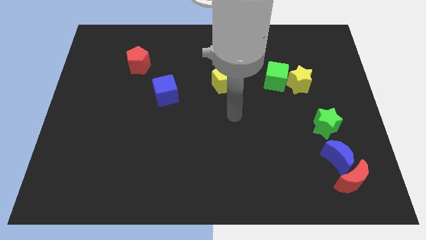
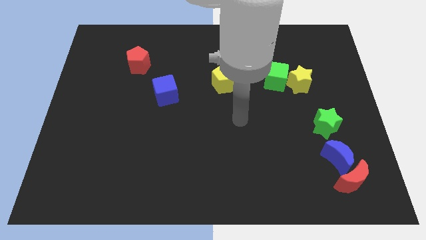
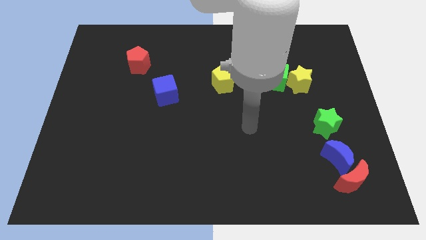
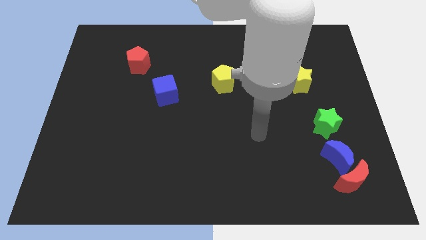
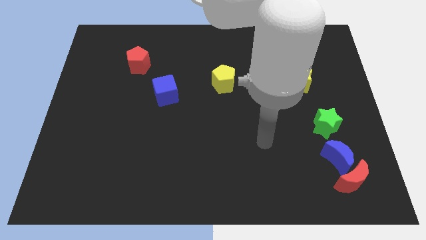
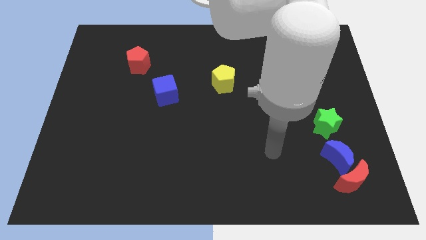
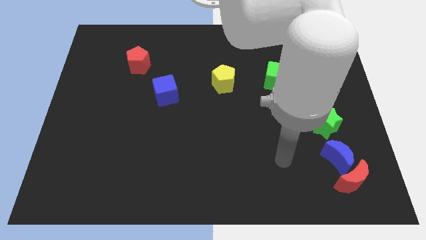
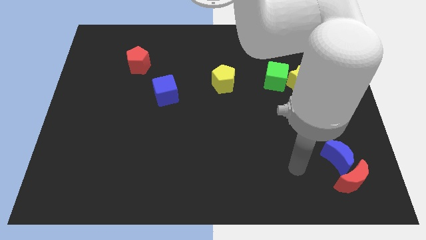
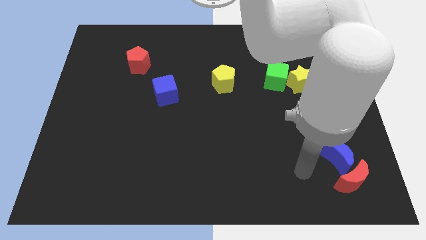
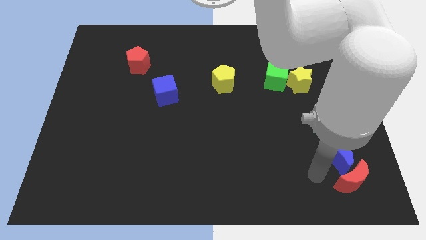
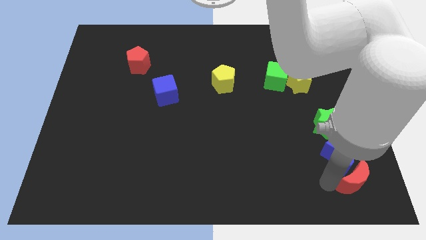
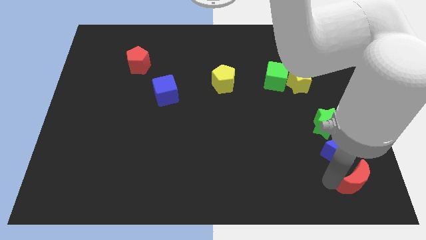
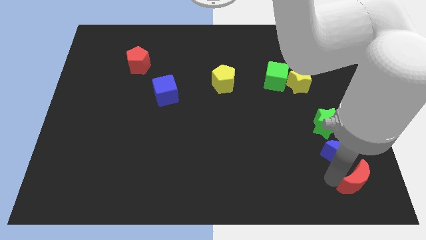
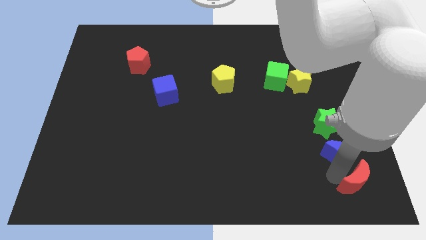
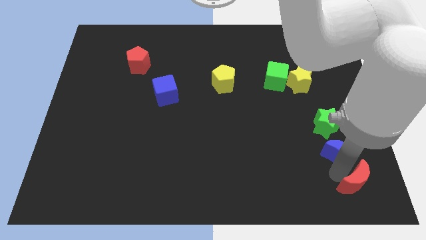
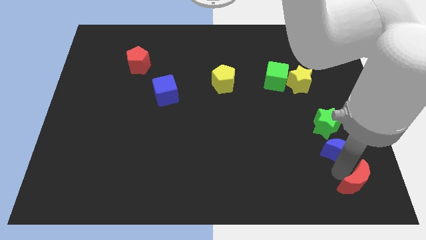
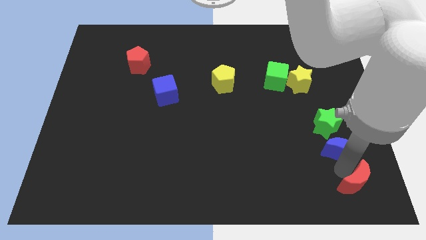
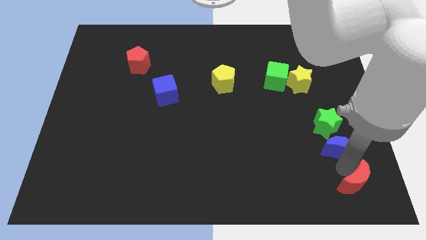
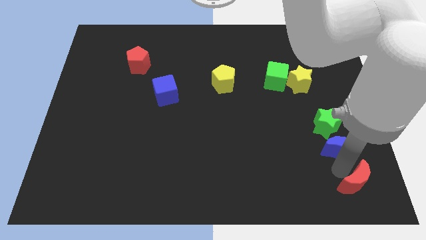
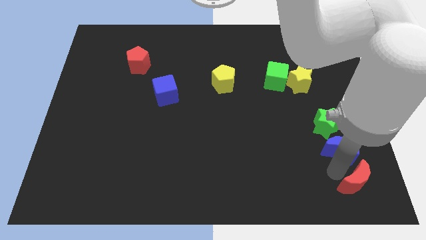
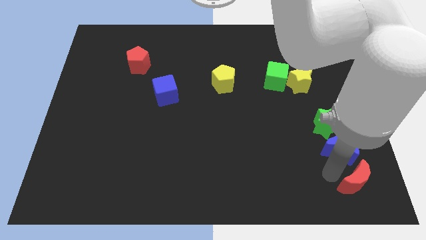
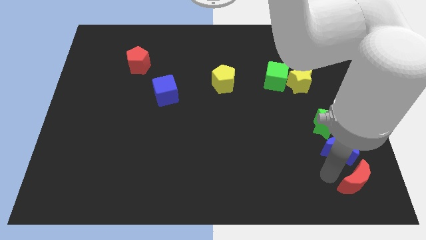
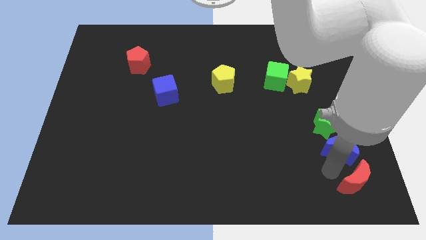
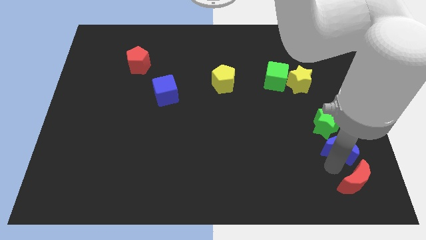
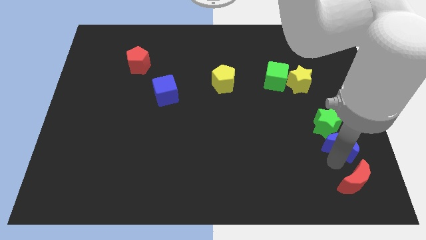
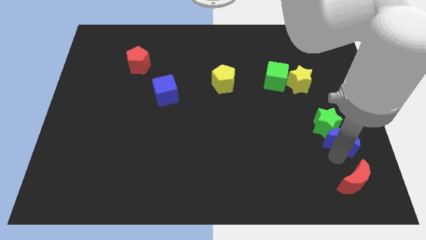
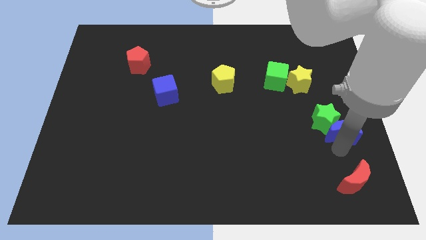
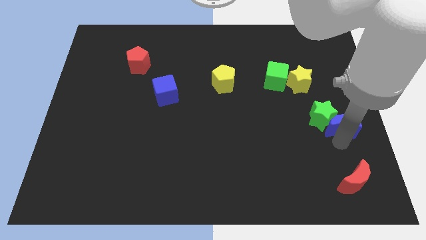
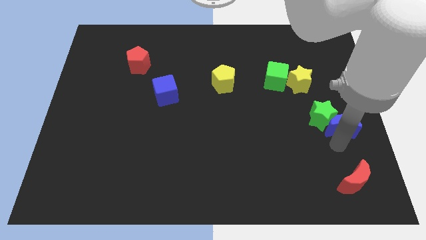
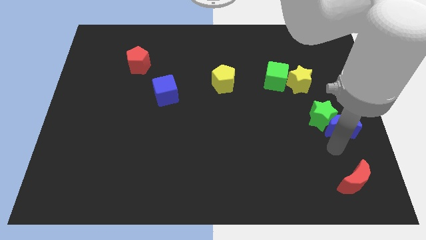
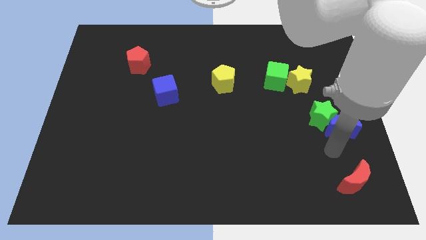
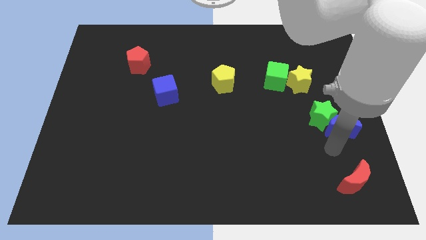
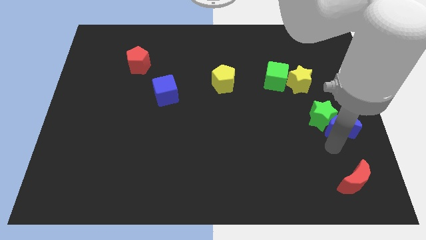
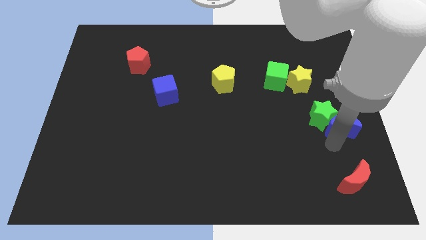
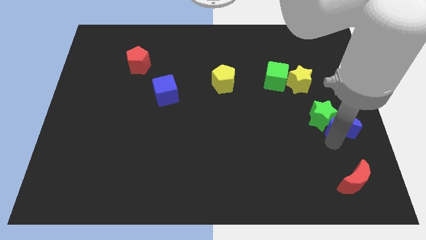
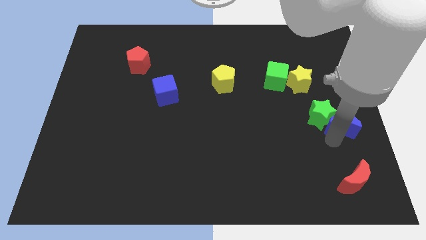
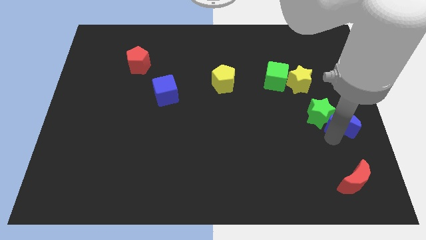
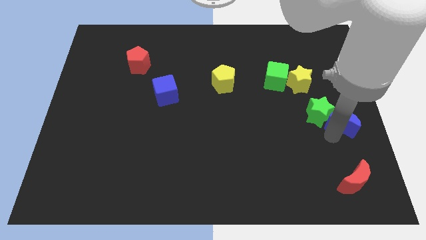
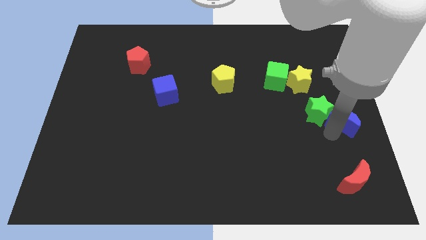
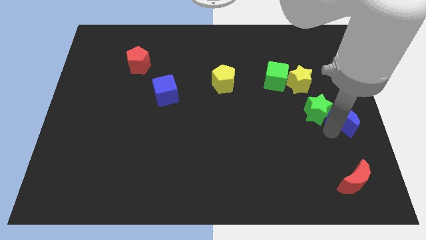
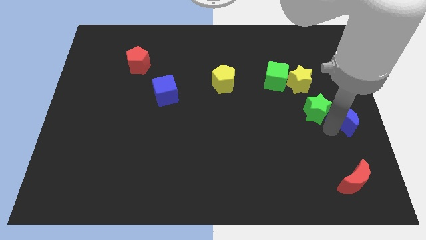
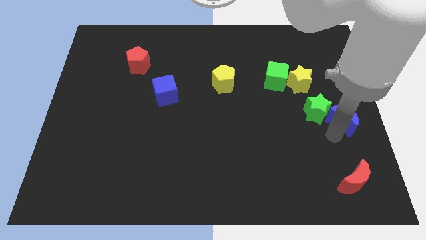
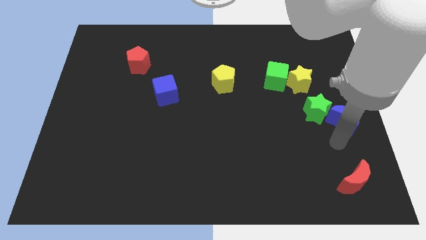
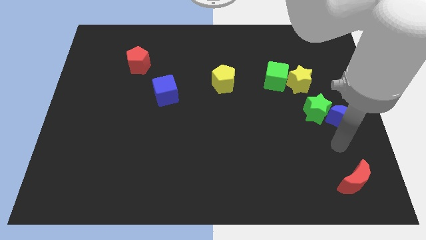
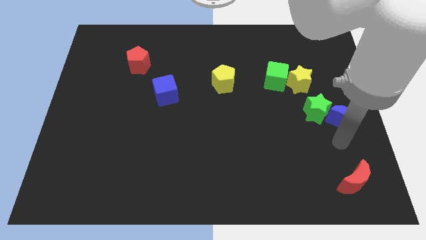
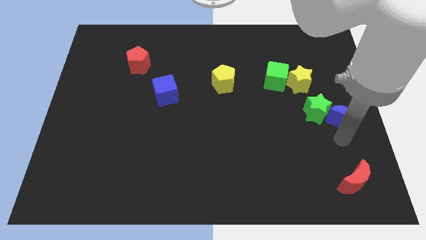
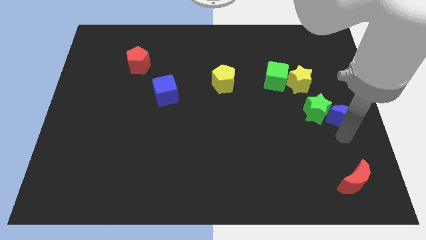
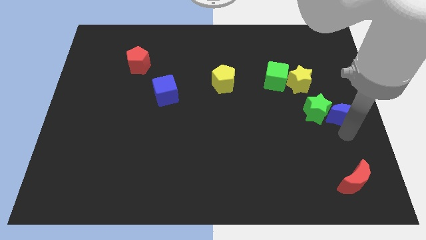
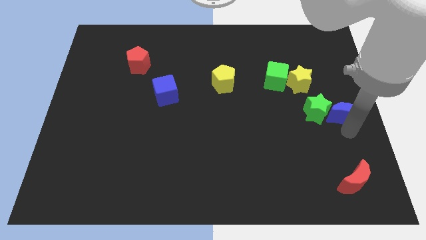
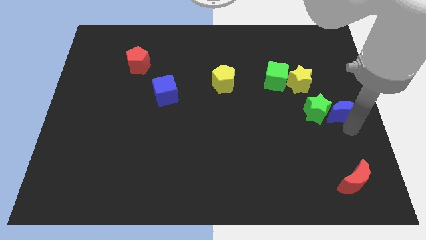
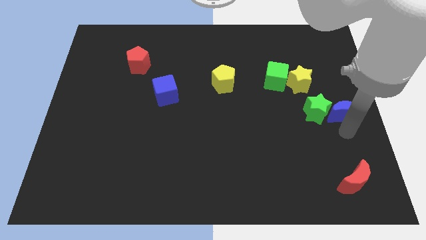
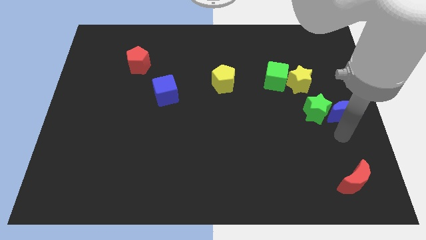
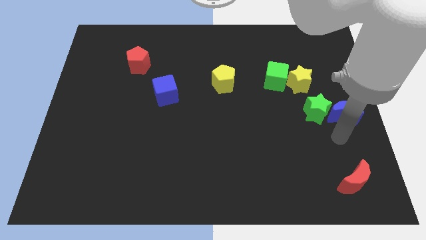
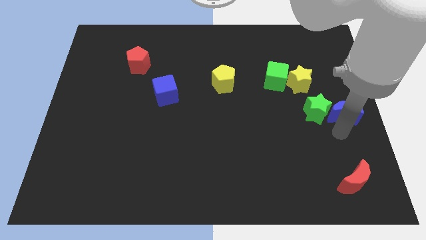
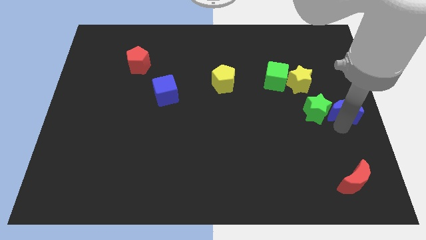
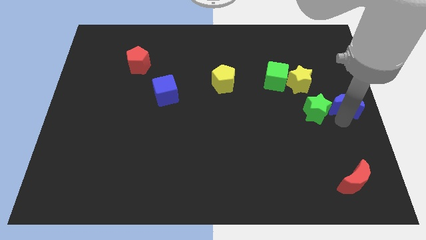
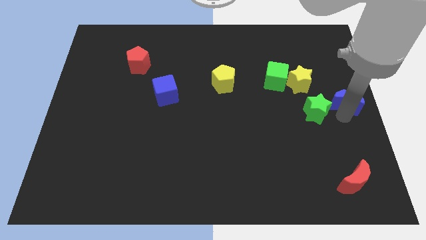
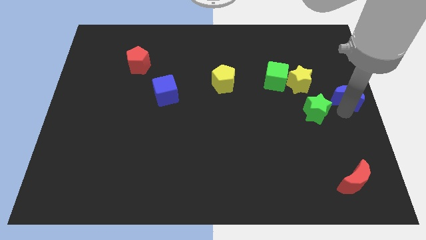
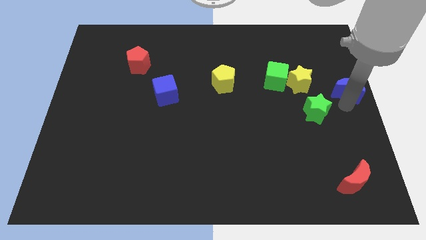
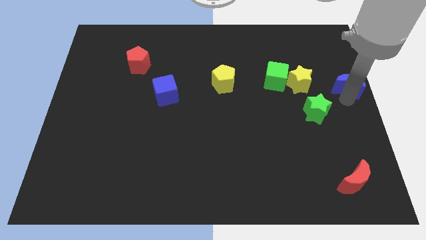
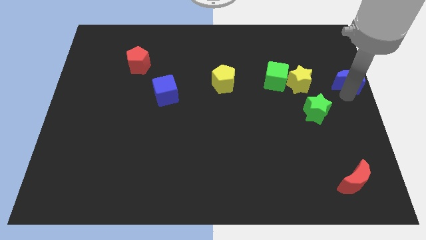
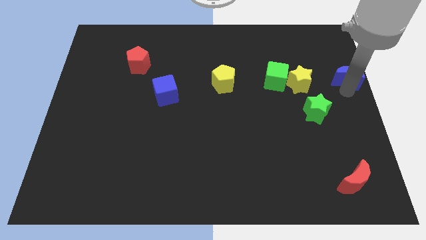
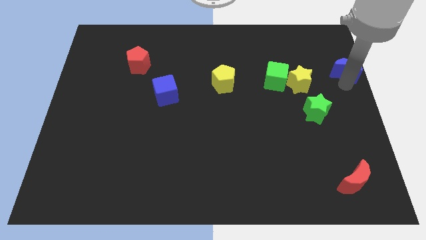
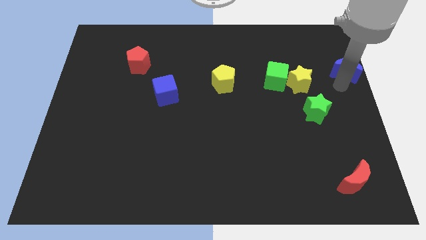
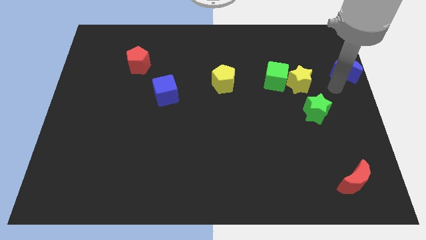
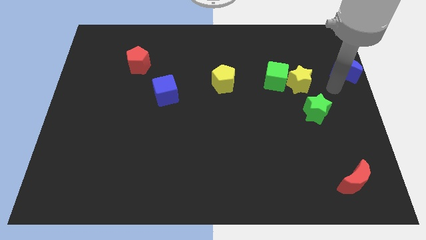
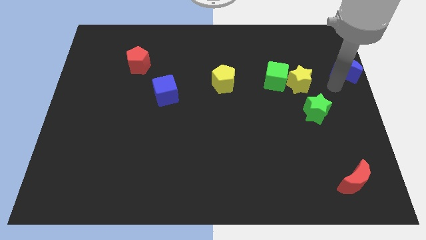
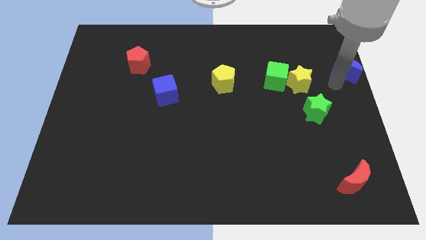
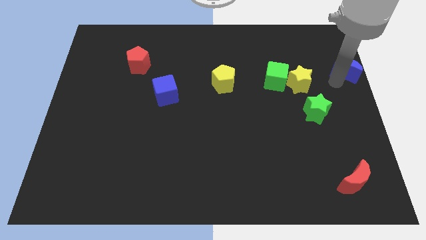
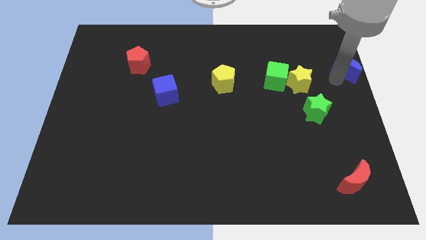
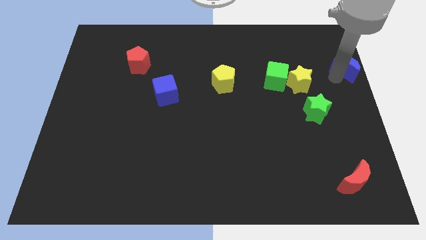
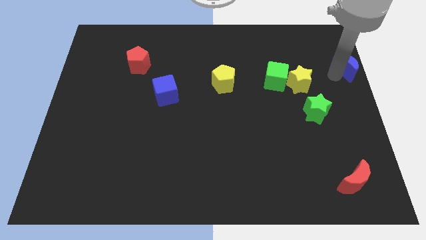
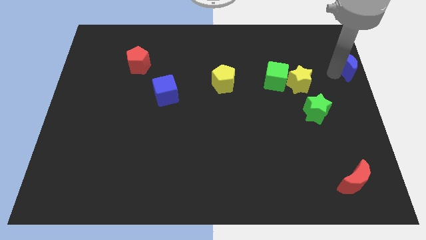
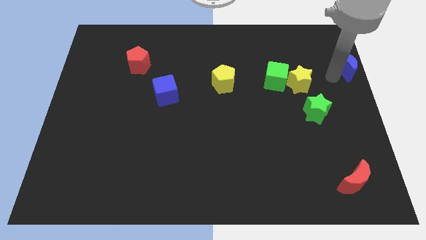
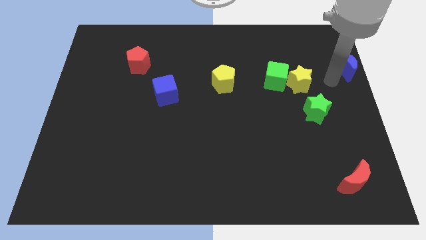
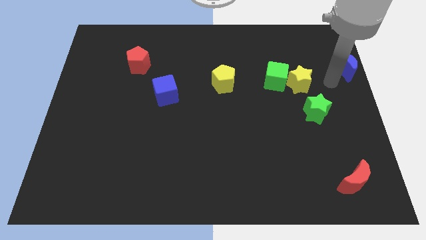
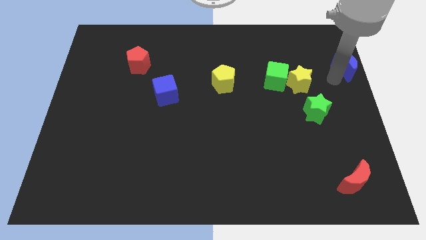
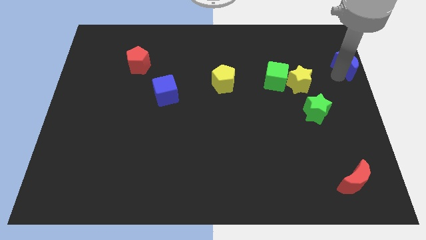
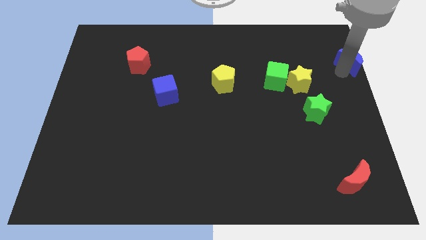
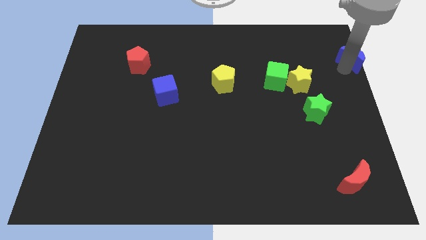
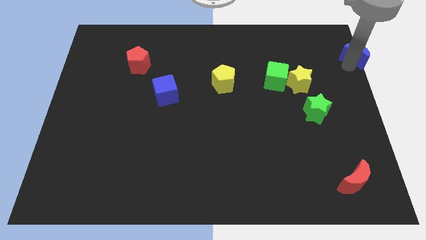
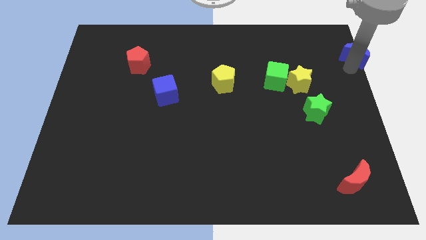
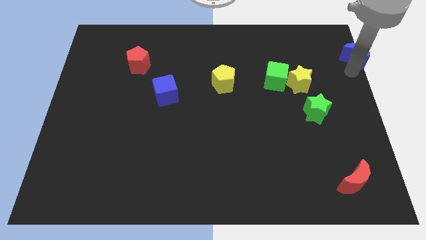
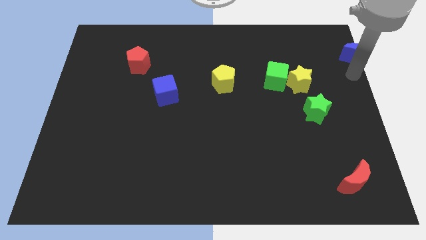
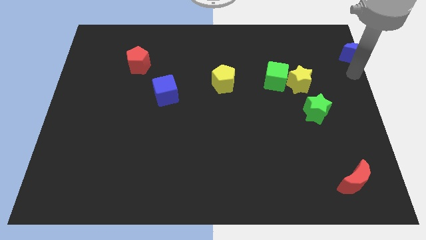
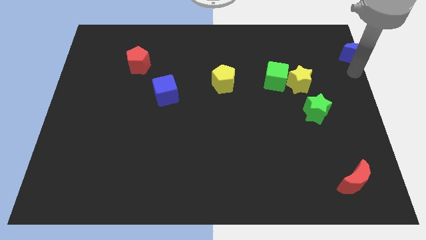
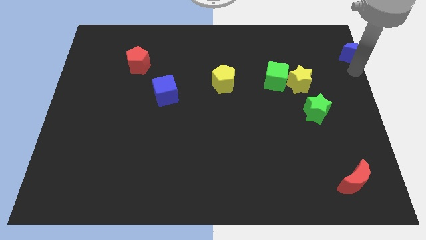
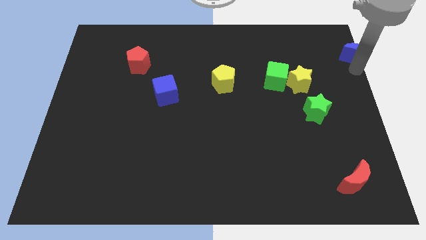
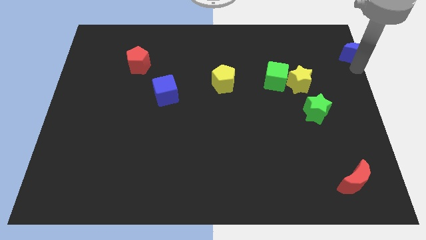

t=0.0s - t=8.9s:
push the blue moon to the upper right corner
